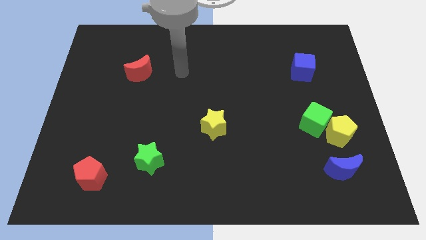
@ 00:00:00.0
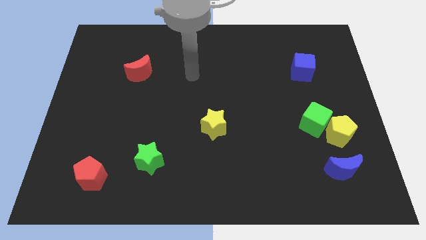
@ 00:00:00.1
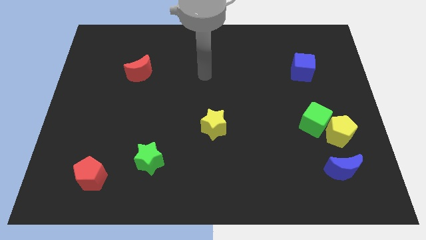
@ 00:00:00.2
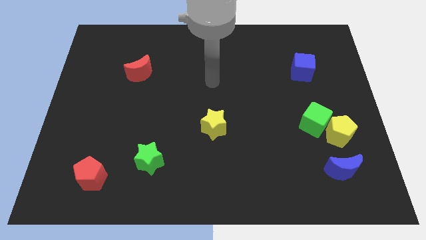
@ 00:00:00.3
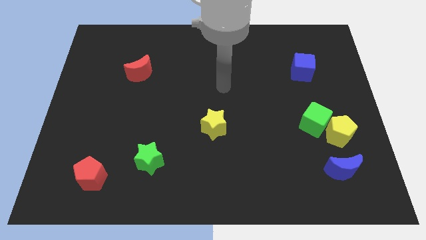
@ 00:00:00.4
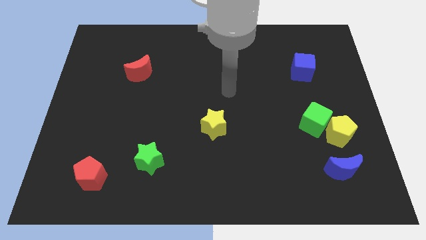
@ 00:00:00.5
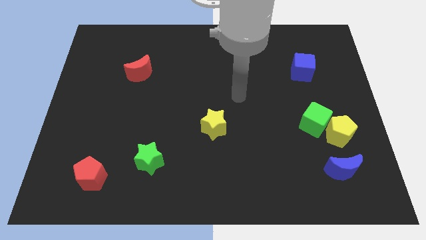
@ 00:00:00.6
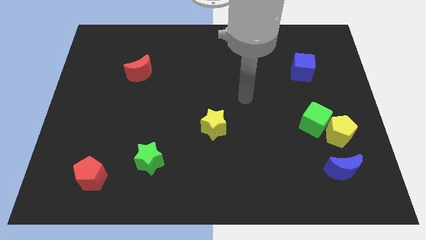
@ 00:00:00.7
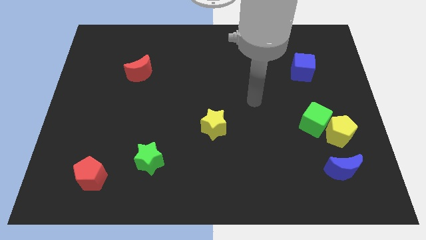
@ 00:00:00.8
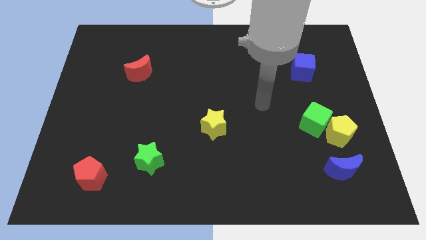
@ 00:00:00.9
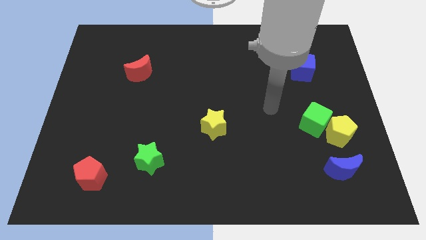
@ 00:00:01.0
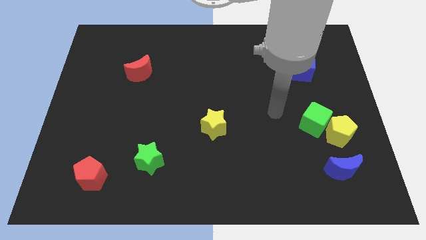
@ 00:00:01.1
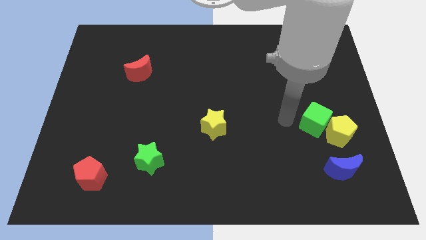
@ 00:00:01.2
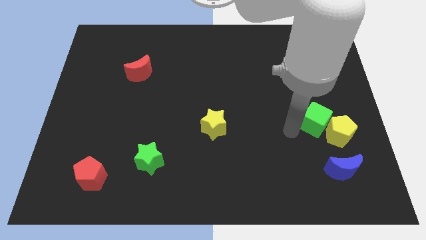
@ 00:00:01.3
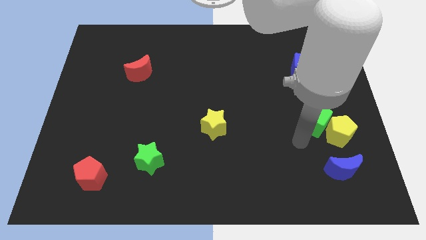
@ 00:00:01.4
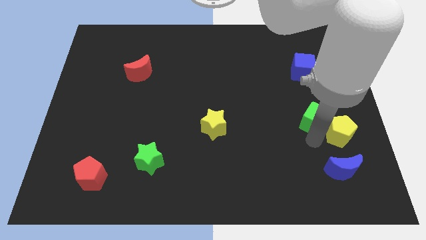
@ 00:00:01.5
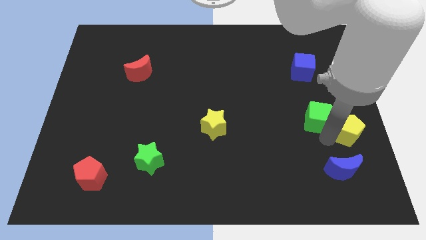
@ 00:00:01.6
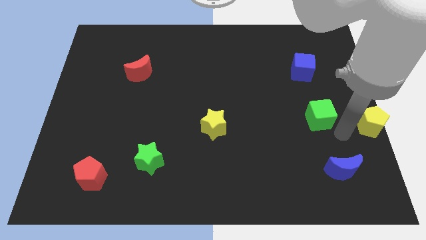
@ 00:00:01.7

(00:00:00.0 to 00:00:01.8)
pull the green cube apart from the yellow pentagon

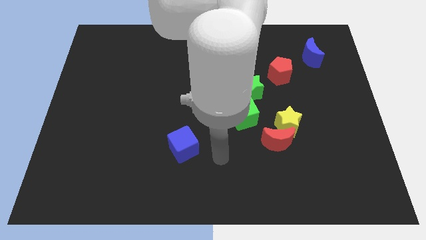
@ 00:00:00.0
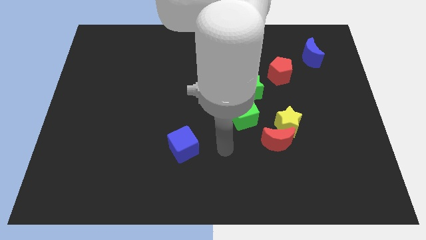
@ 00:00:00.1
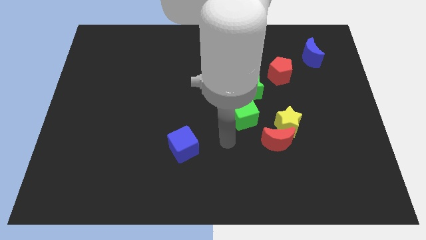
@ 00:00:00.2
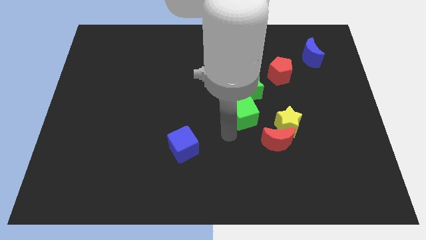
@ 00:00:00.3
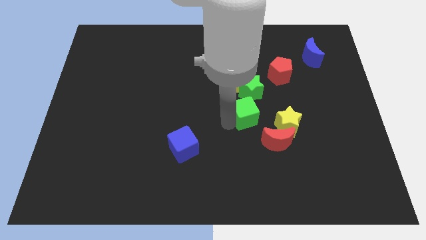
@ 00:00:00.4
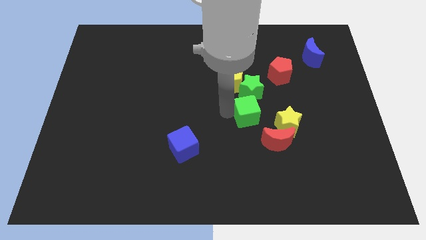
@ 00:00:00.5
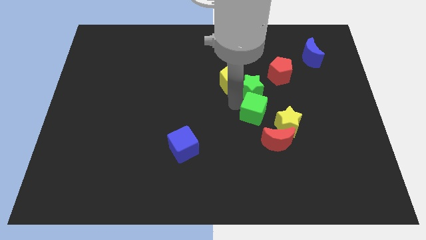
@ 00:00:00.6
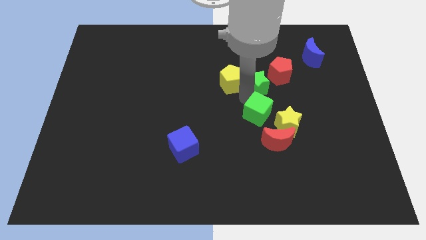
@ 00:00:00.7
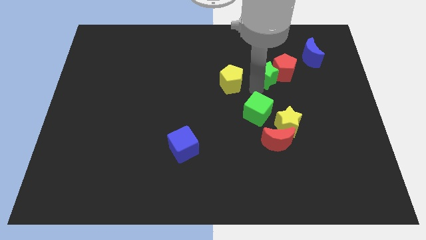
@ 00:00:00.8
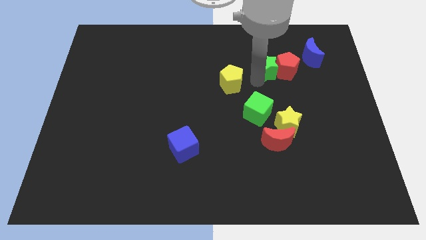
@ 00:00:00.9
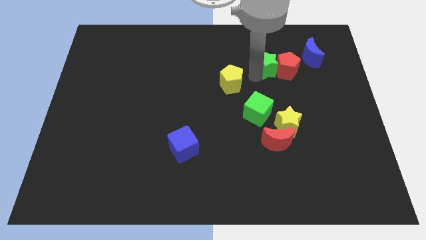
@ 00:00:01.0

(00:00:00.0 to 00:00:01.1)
pull the yellow pentagon apart from the green star

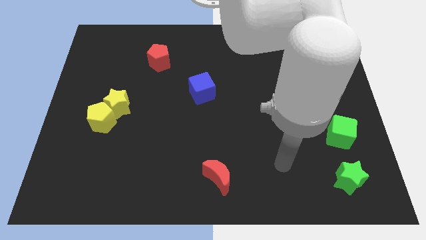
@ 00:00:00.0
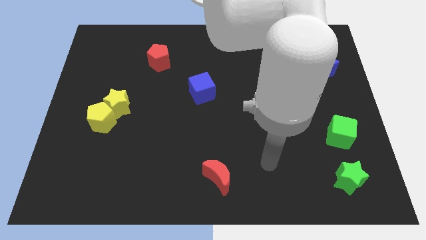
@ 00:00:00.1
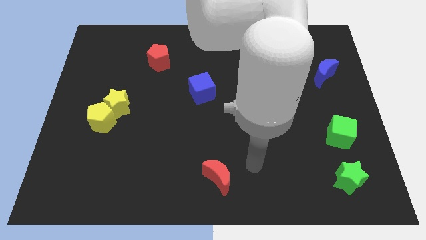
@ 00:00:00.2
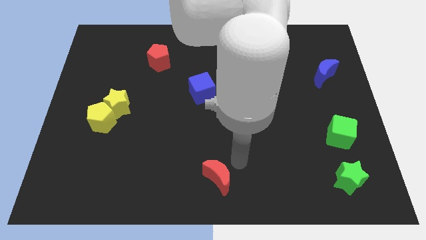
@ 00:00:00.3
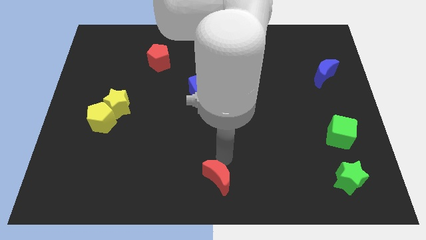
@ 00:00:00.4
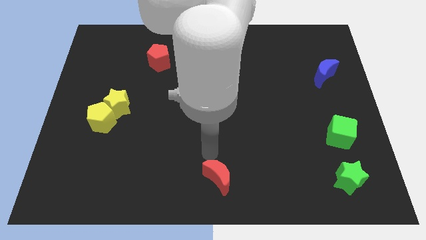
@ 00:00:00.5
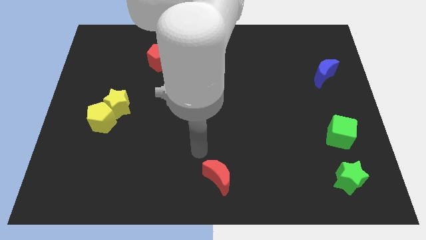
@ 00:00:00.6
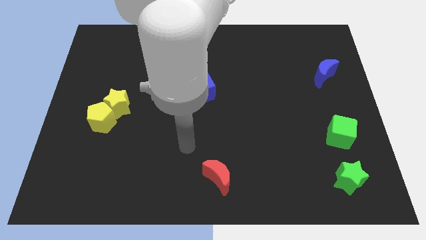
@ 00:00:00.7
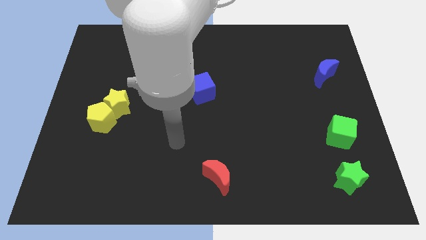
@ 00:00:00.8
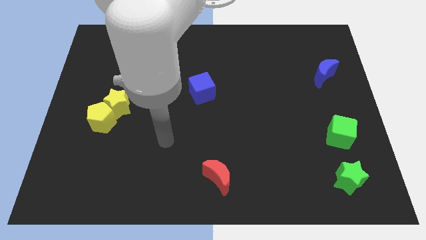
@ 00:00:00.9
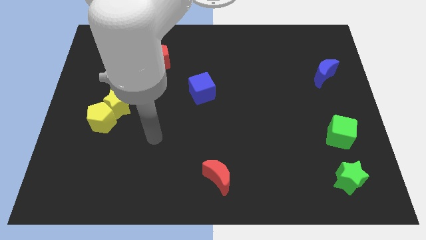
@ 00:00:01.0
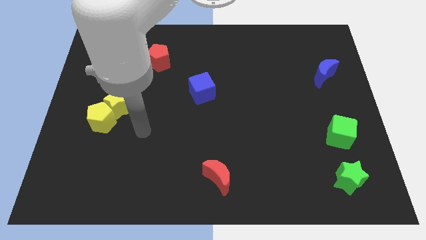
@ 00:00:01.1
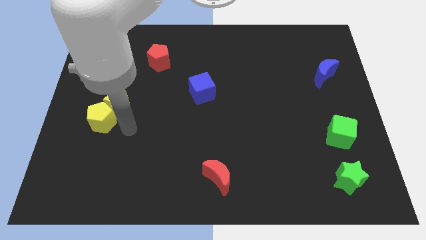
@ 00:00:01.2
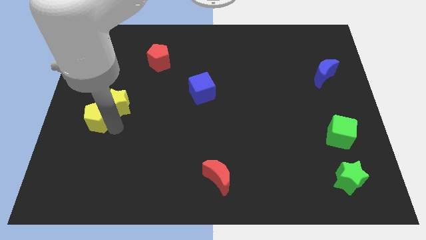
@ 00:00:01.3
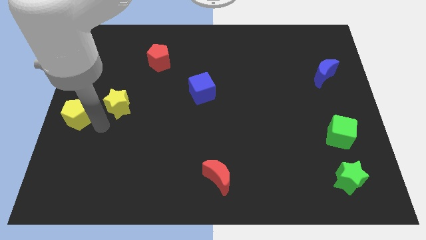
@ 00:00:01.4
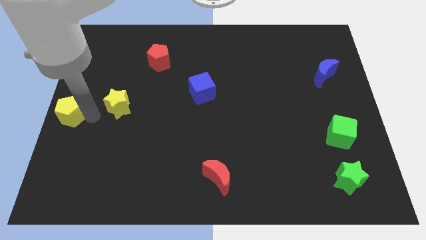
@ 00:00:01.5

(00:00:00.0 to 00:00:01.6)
pull the yellow star apart from the yellow pentagon

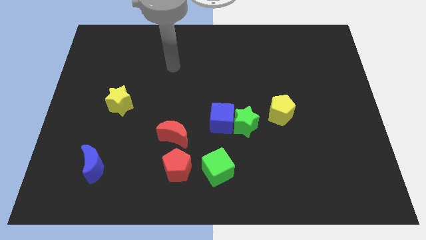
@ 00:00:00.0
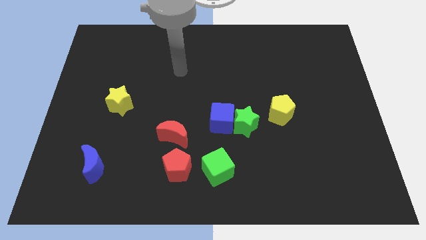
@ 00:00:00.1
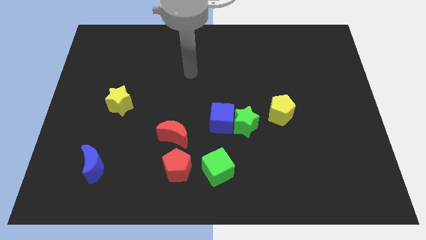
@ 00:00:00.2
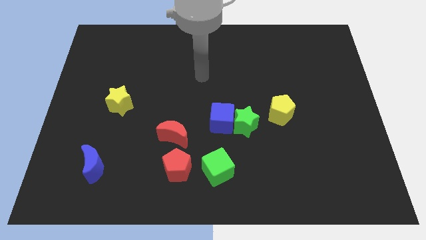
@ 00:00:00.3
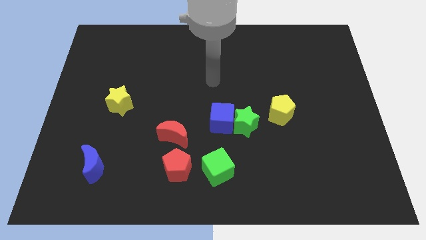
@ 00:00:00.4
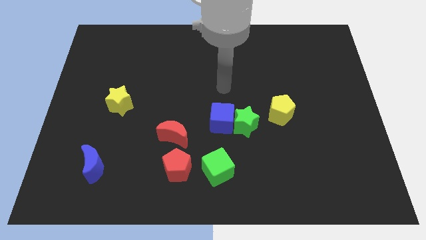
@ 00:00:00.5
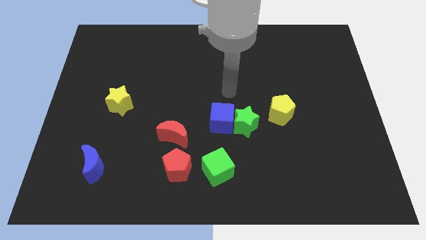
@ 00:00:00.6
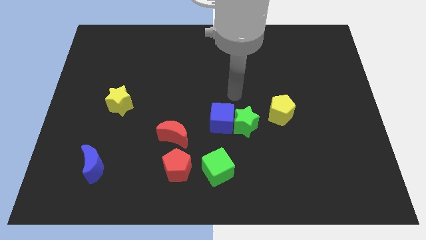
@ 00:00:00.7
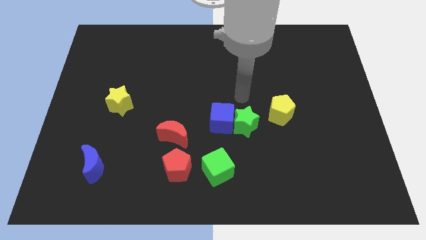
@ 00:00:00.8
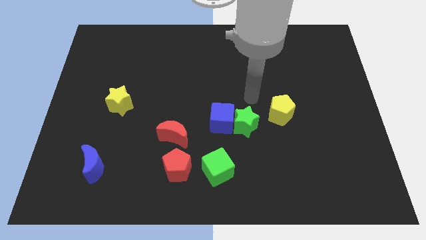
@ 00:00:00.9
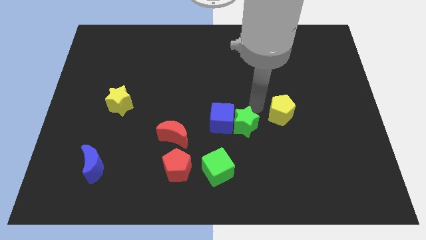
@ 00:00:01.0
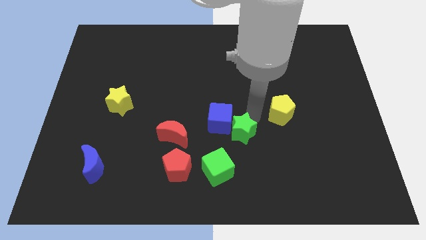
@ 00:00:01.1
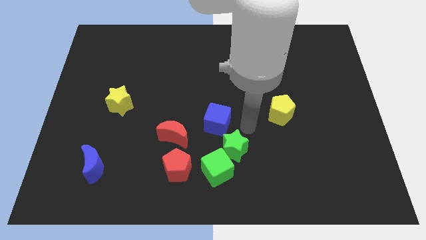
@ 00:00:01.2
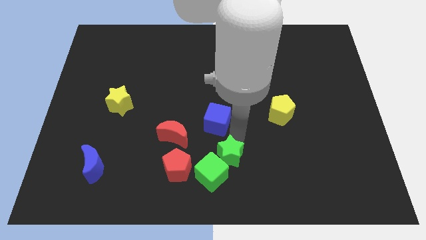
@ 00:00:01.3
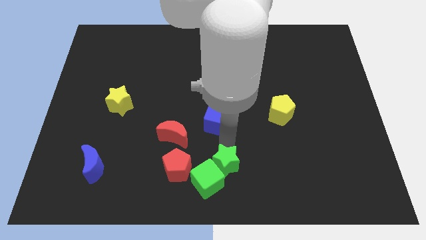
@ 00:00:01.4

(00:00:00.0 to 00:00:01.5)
move the blue cube away from the green star

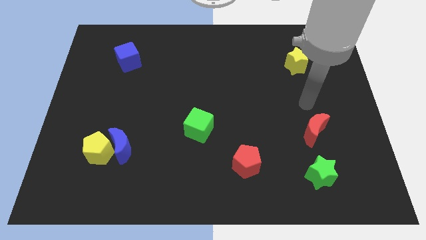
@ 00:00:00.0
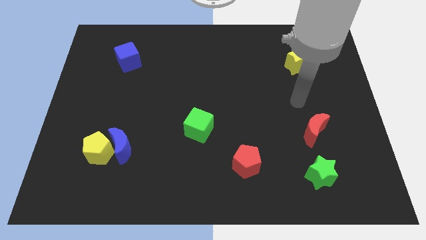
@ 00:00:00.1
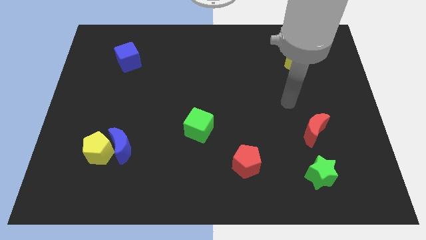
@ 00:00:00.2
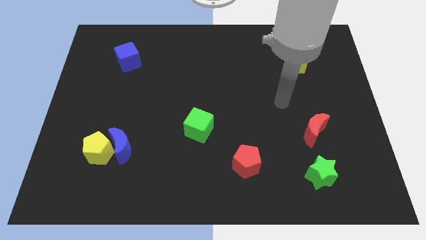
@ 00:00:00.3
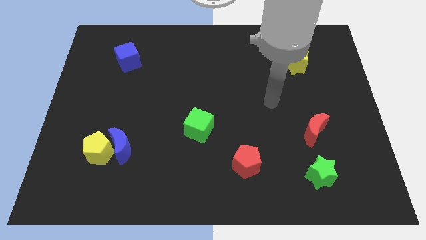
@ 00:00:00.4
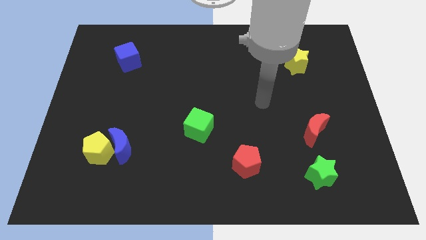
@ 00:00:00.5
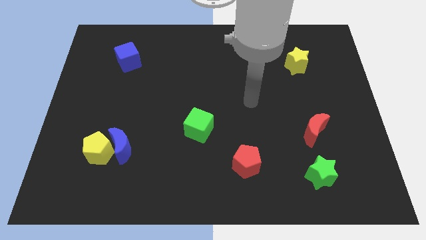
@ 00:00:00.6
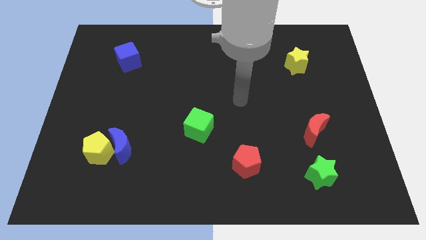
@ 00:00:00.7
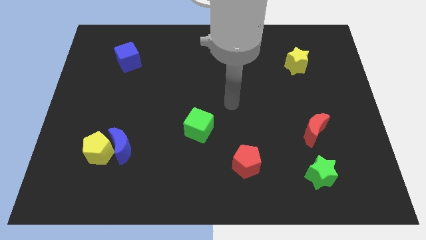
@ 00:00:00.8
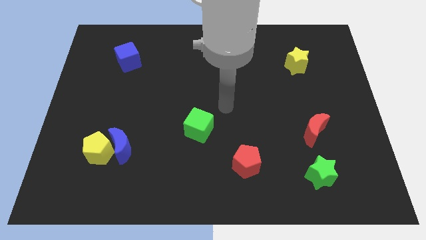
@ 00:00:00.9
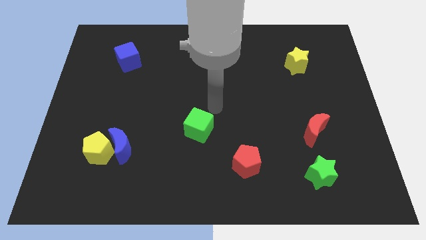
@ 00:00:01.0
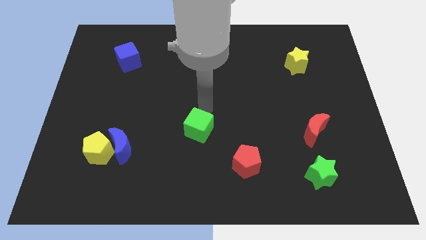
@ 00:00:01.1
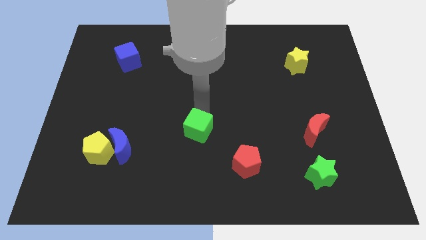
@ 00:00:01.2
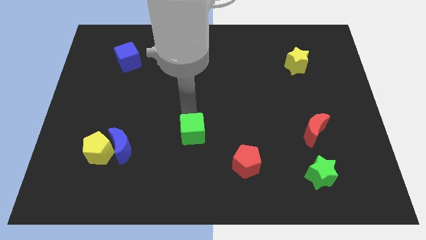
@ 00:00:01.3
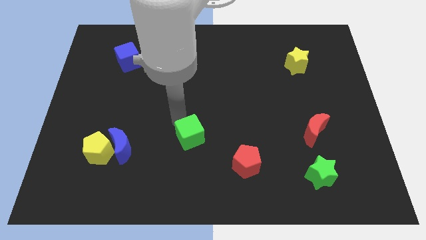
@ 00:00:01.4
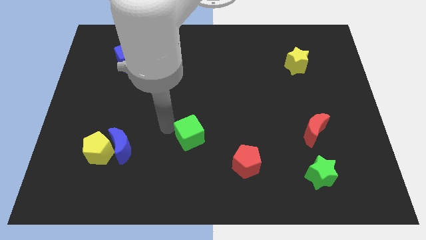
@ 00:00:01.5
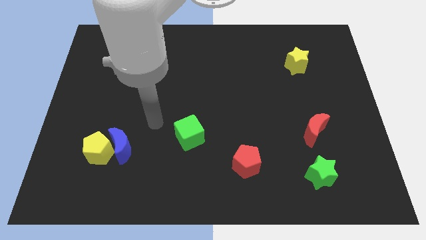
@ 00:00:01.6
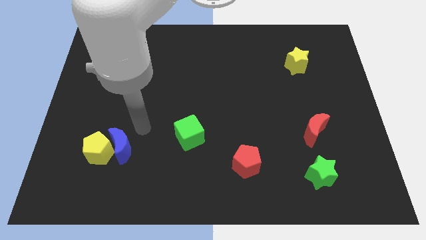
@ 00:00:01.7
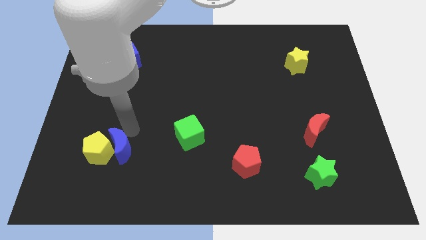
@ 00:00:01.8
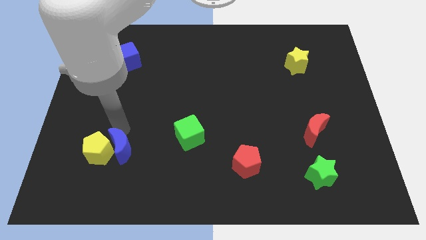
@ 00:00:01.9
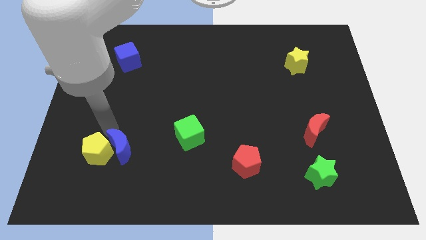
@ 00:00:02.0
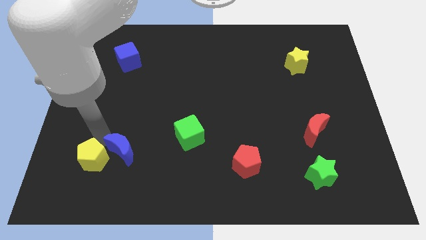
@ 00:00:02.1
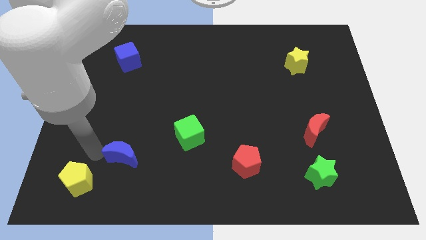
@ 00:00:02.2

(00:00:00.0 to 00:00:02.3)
pull the blue moon apart from the yellow pentagon

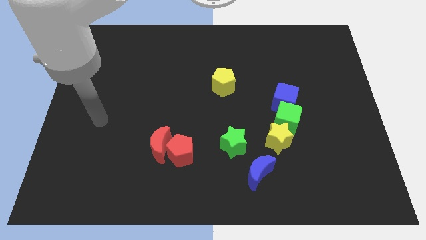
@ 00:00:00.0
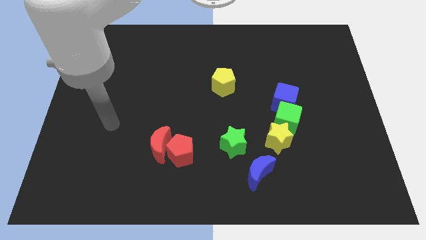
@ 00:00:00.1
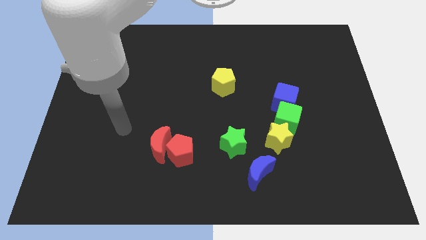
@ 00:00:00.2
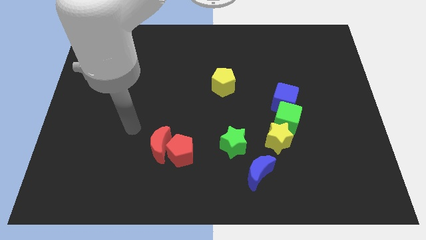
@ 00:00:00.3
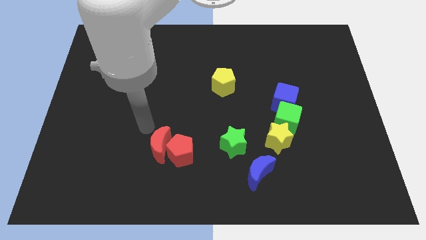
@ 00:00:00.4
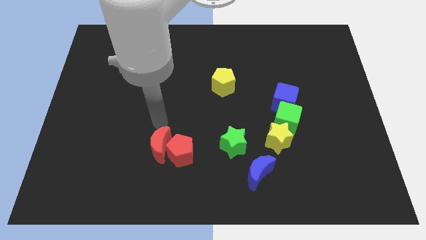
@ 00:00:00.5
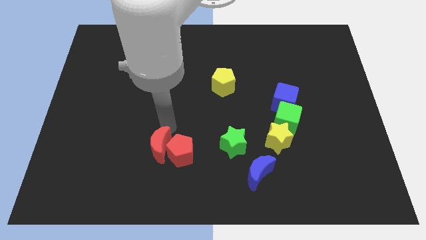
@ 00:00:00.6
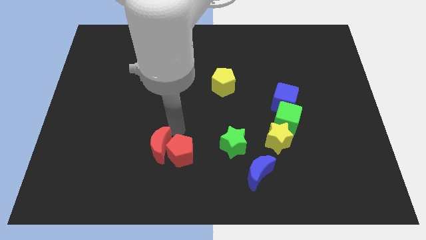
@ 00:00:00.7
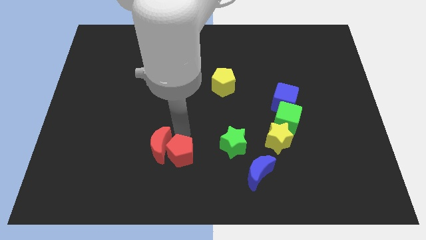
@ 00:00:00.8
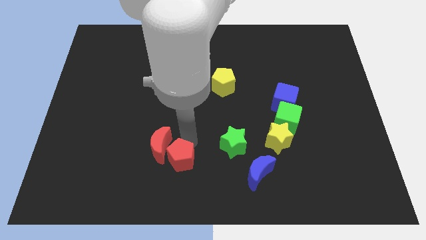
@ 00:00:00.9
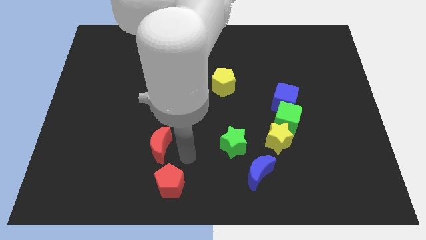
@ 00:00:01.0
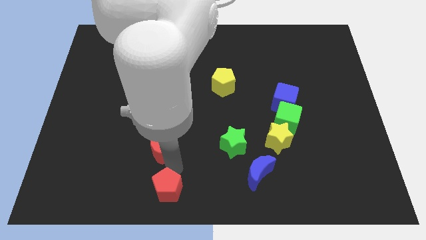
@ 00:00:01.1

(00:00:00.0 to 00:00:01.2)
pull the red moon apart from the red pentagon
